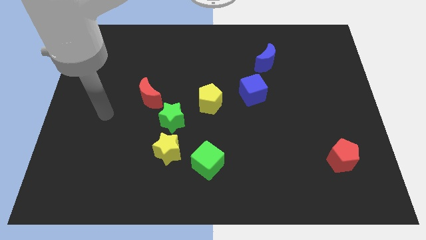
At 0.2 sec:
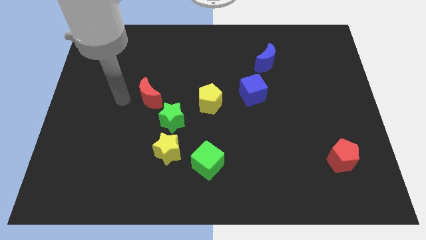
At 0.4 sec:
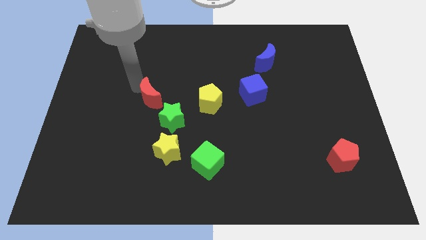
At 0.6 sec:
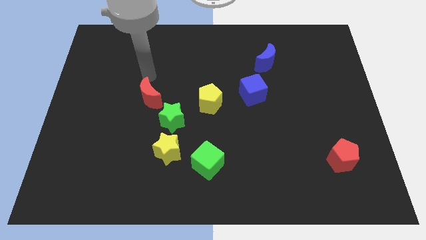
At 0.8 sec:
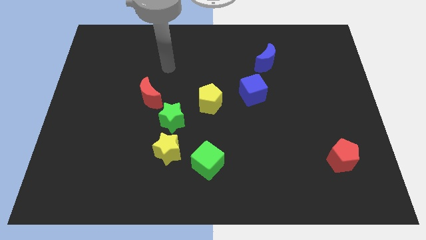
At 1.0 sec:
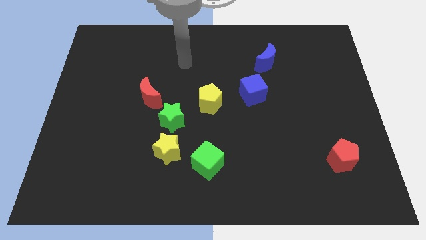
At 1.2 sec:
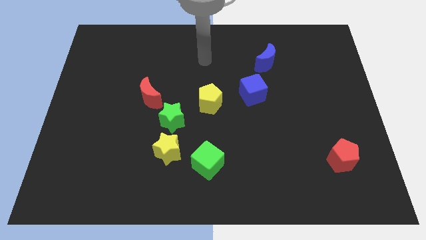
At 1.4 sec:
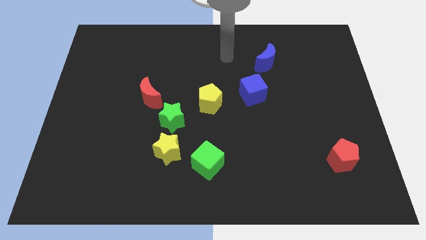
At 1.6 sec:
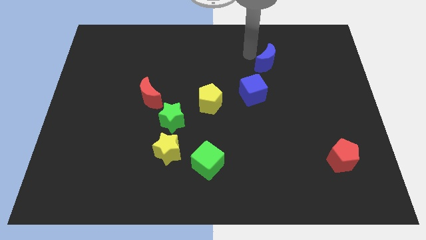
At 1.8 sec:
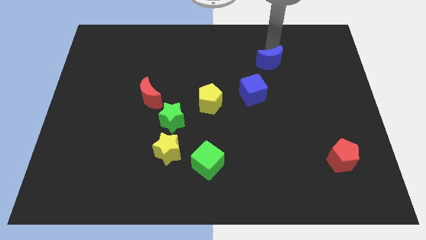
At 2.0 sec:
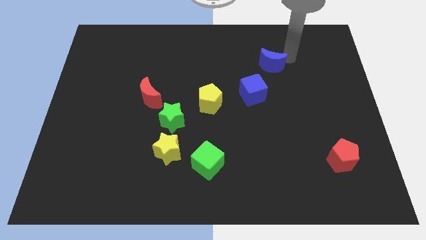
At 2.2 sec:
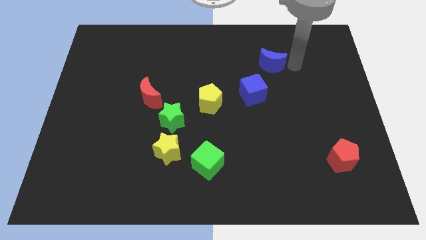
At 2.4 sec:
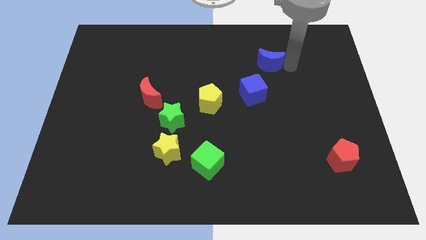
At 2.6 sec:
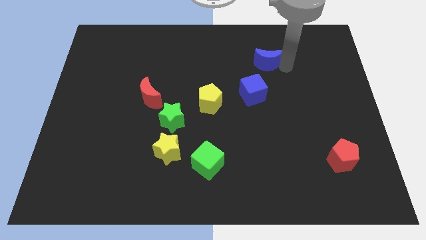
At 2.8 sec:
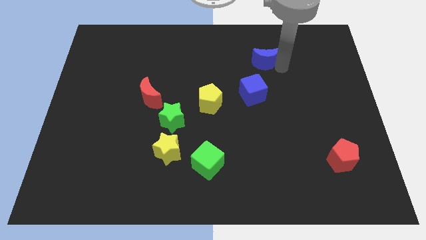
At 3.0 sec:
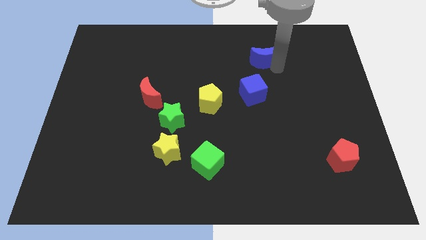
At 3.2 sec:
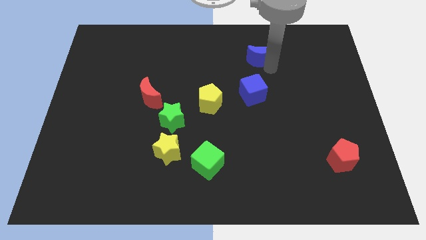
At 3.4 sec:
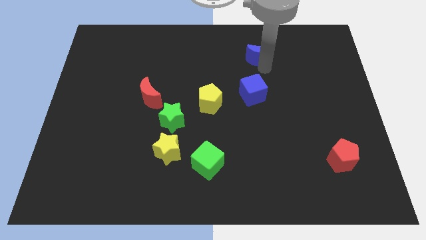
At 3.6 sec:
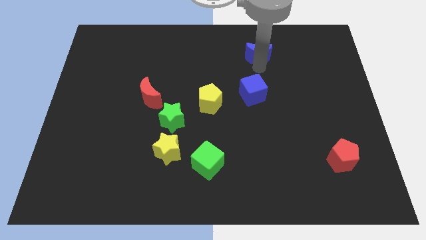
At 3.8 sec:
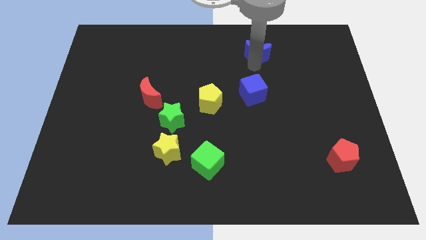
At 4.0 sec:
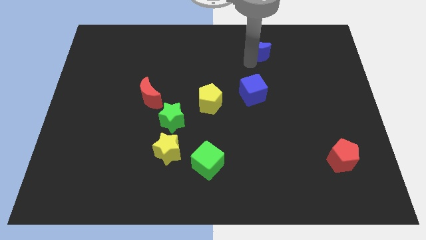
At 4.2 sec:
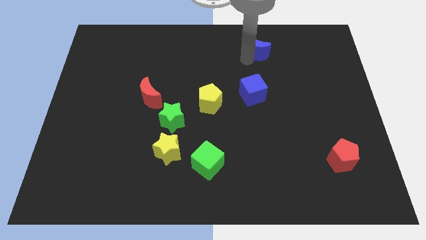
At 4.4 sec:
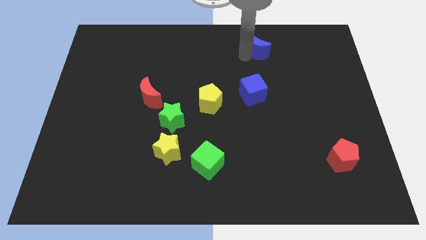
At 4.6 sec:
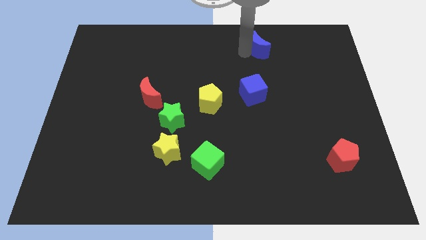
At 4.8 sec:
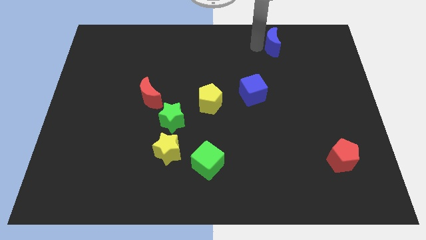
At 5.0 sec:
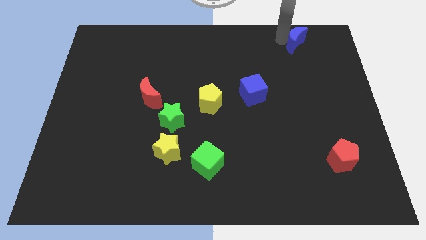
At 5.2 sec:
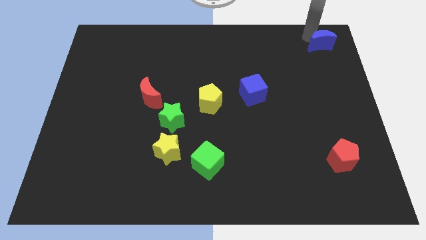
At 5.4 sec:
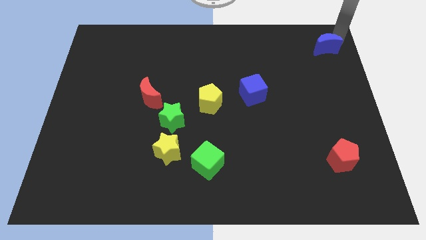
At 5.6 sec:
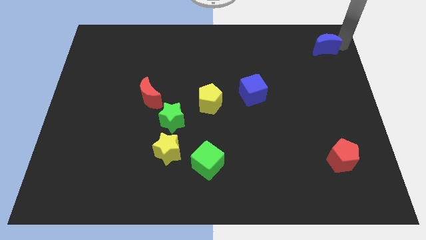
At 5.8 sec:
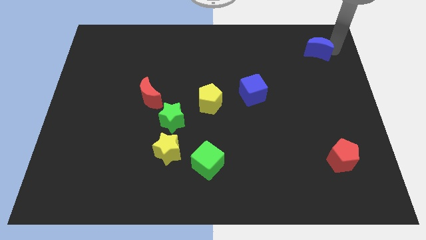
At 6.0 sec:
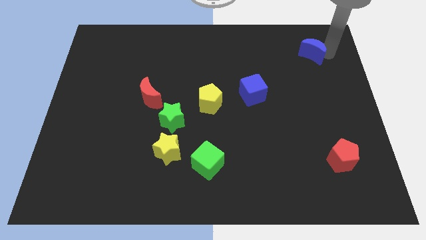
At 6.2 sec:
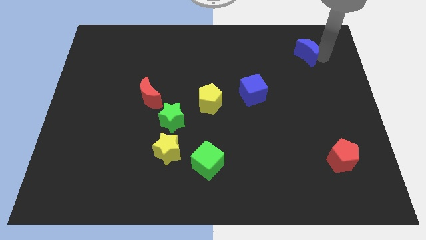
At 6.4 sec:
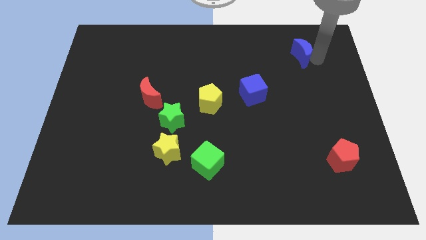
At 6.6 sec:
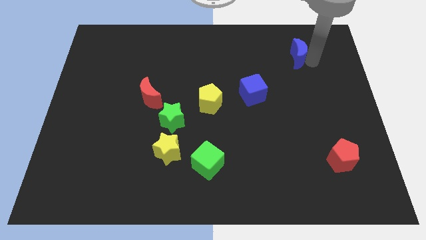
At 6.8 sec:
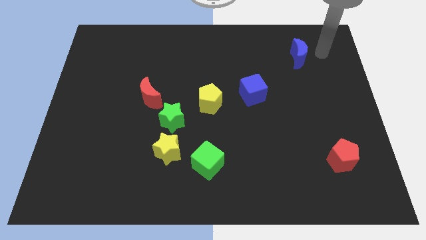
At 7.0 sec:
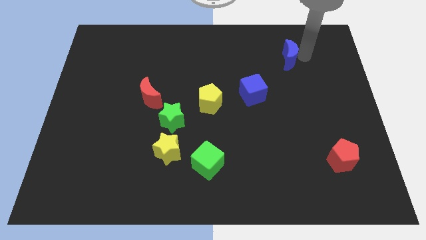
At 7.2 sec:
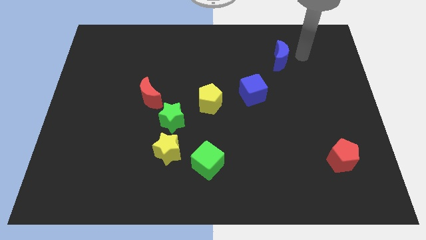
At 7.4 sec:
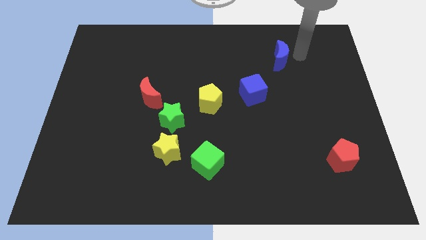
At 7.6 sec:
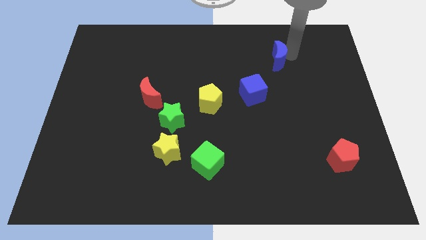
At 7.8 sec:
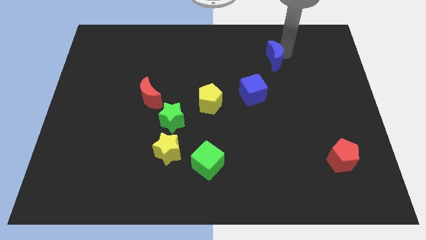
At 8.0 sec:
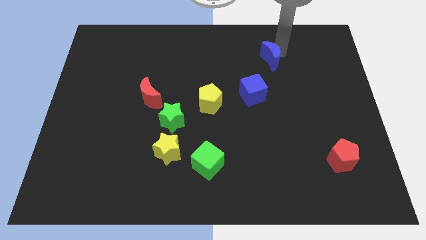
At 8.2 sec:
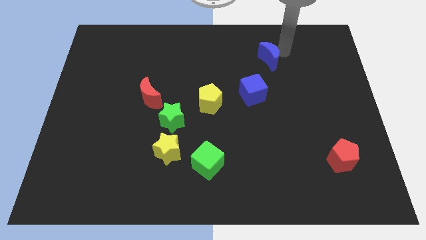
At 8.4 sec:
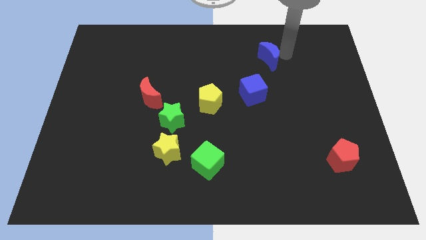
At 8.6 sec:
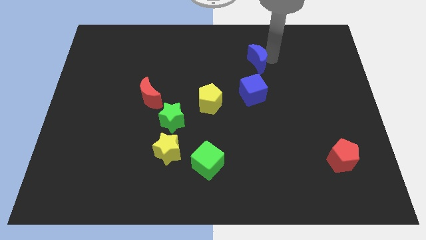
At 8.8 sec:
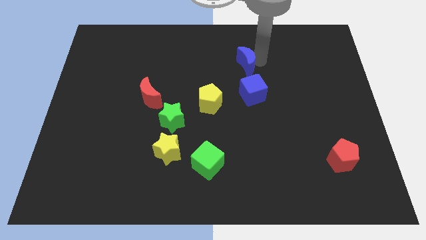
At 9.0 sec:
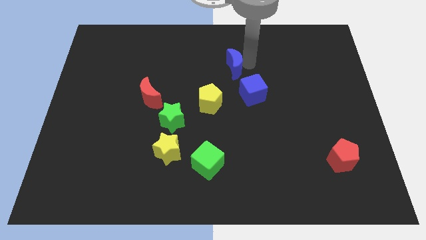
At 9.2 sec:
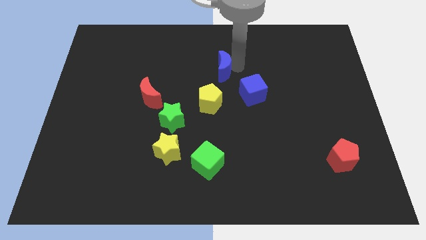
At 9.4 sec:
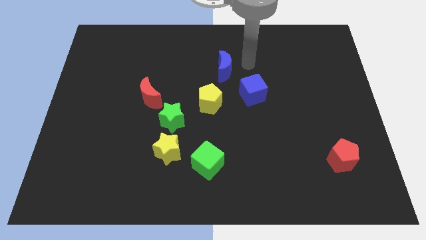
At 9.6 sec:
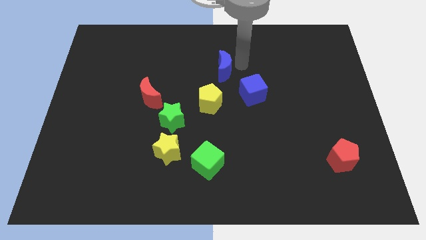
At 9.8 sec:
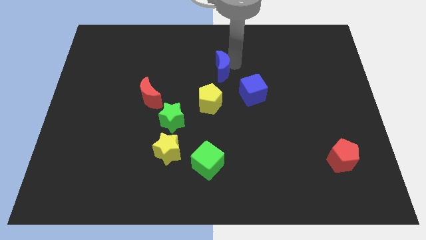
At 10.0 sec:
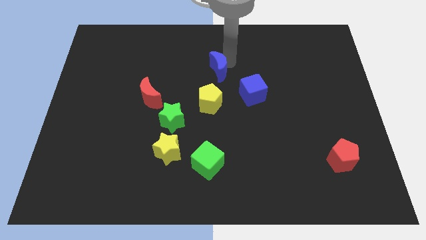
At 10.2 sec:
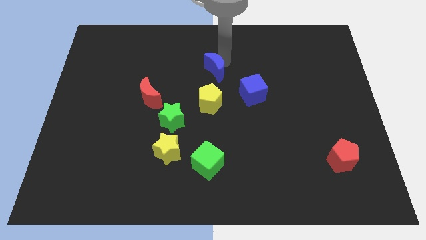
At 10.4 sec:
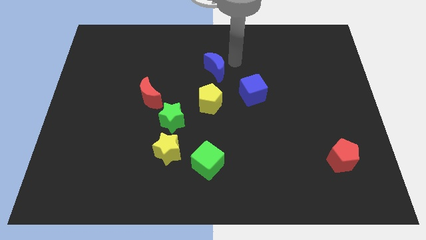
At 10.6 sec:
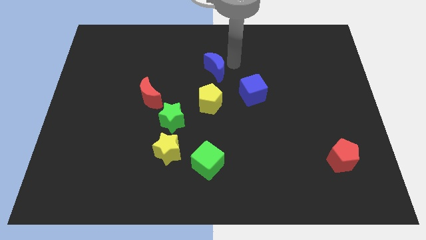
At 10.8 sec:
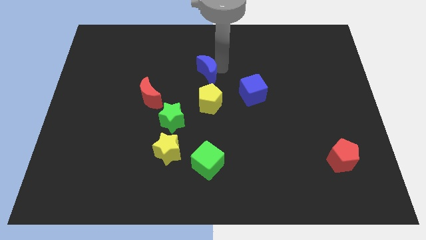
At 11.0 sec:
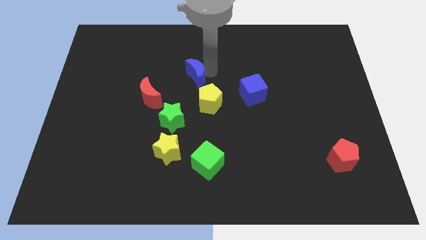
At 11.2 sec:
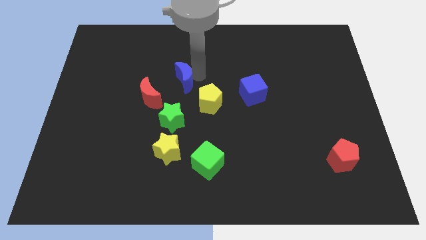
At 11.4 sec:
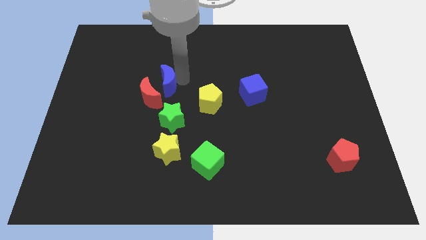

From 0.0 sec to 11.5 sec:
put the blue moon close to the red moon

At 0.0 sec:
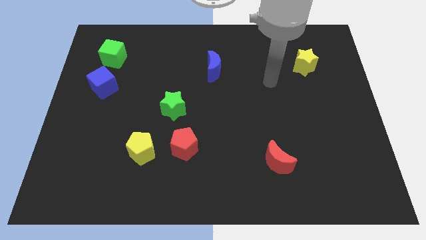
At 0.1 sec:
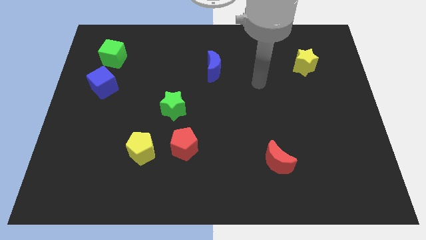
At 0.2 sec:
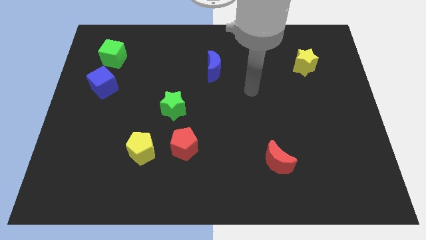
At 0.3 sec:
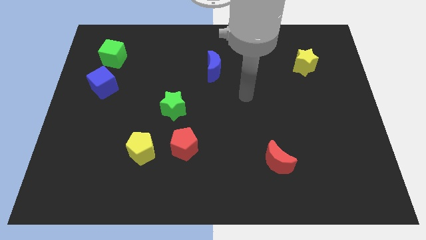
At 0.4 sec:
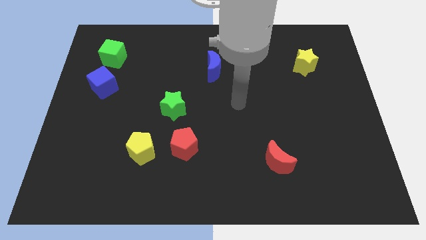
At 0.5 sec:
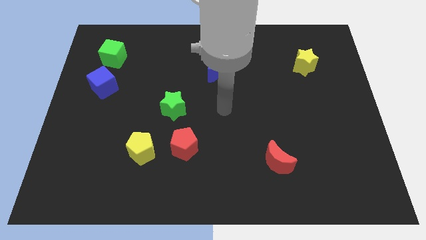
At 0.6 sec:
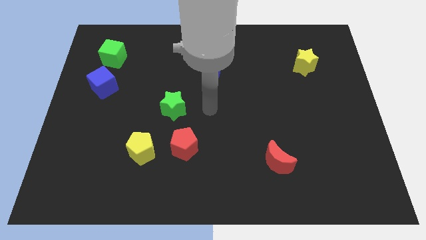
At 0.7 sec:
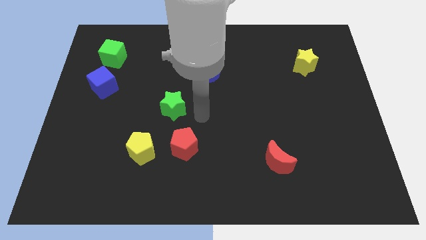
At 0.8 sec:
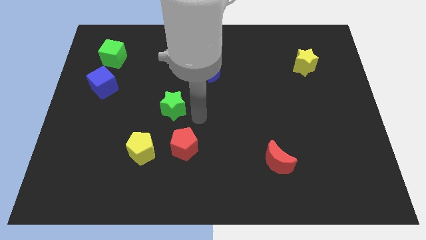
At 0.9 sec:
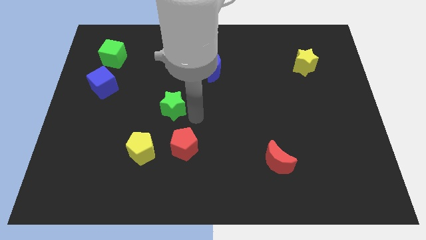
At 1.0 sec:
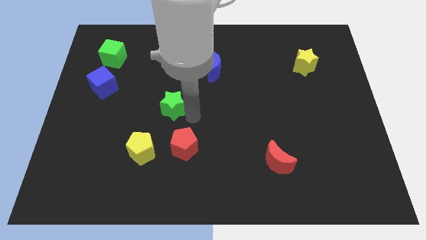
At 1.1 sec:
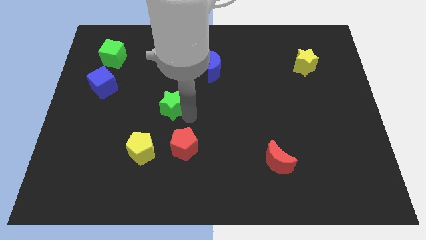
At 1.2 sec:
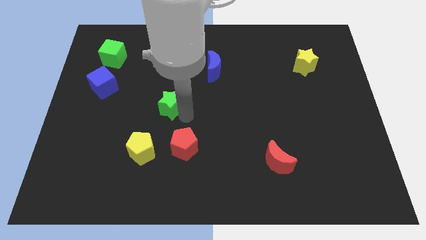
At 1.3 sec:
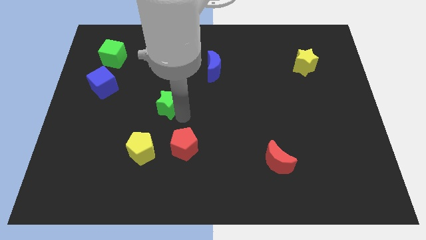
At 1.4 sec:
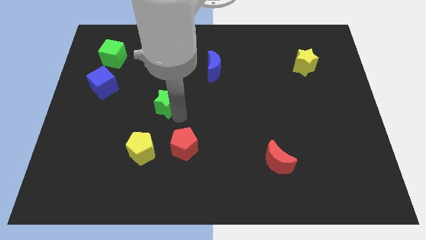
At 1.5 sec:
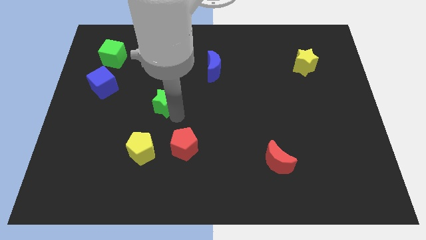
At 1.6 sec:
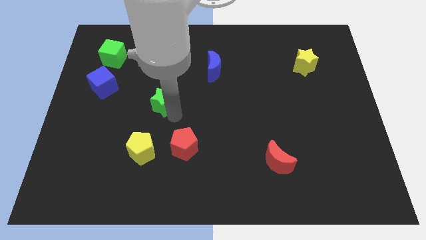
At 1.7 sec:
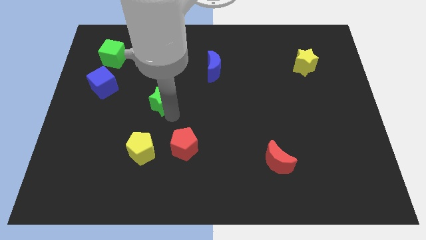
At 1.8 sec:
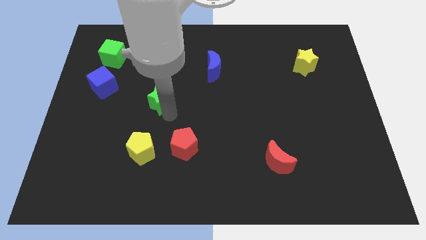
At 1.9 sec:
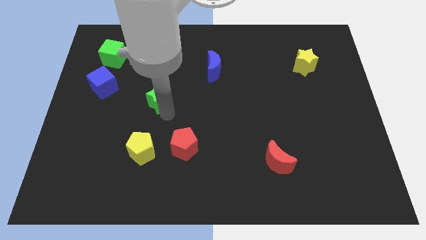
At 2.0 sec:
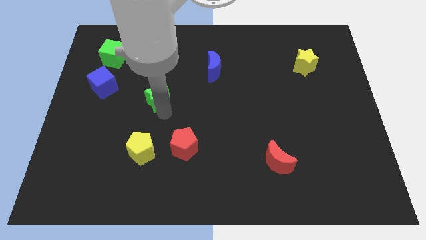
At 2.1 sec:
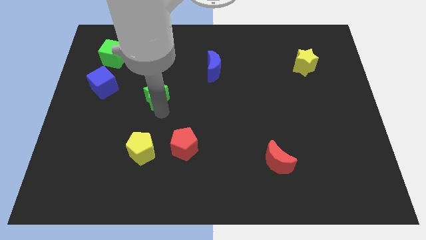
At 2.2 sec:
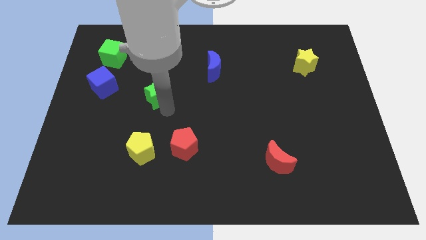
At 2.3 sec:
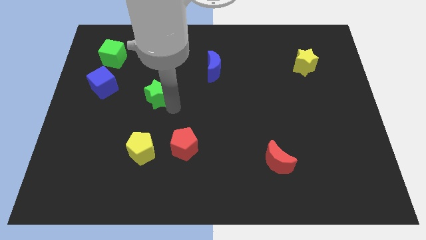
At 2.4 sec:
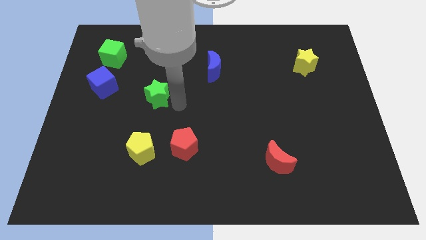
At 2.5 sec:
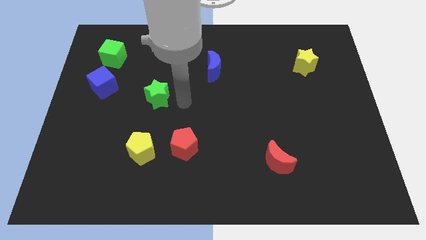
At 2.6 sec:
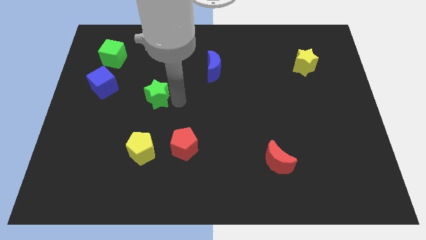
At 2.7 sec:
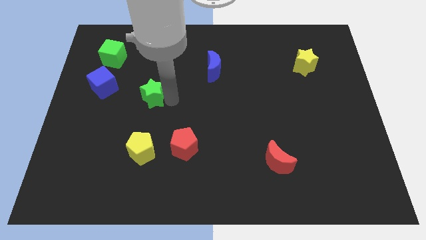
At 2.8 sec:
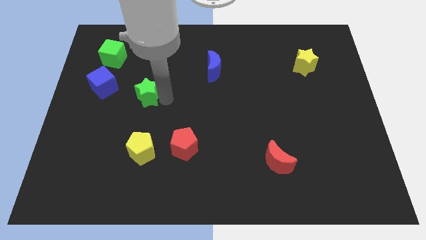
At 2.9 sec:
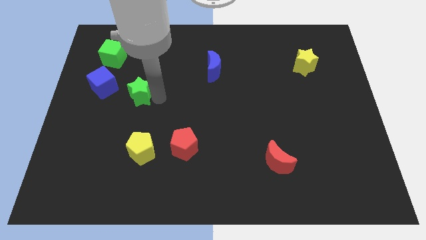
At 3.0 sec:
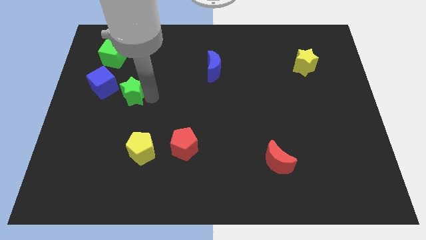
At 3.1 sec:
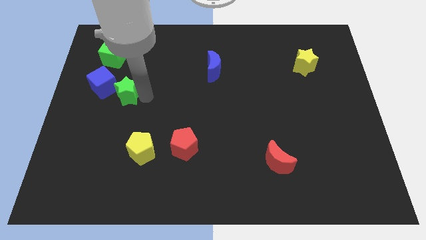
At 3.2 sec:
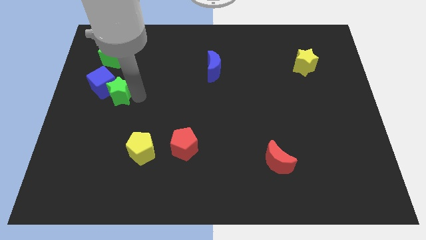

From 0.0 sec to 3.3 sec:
move the green star to the blue cube
